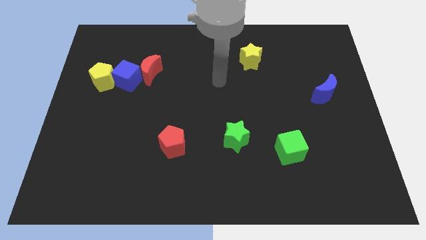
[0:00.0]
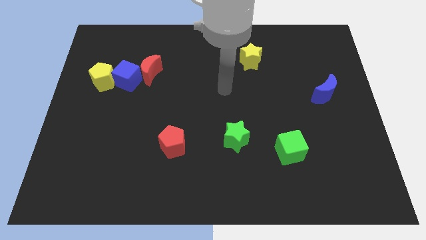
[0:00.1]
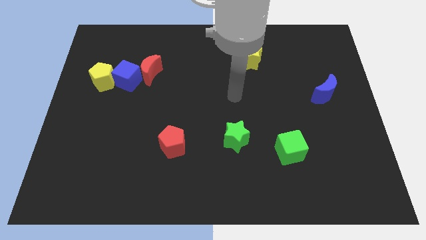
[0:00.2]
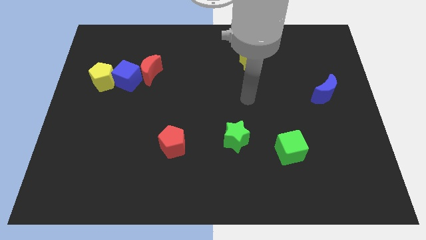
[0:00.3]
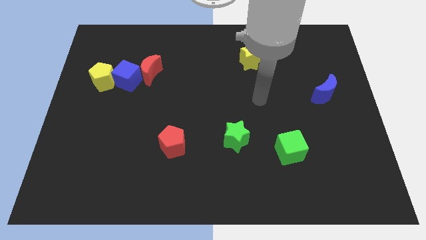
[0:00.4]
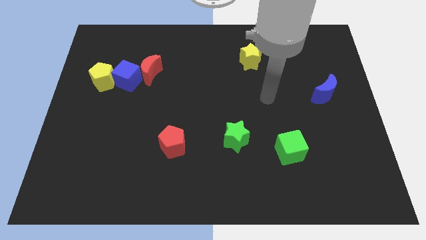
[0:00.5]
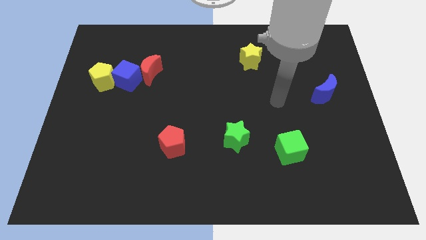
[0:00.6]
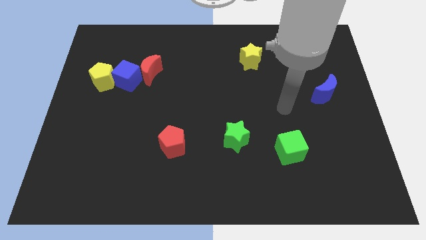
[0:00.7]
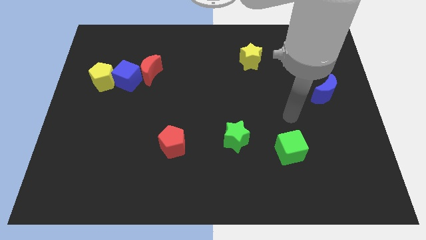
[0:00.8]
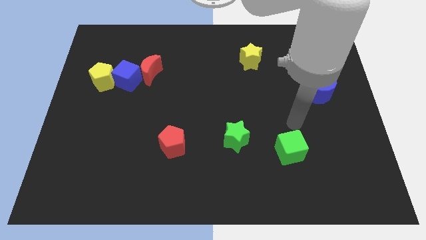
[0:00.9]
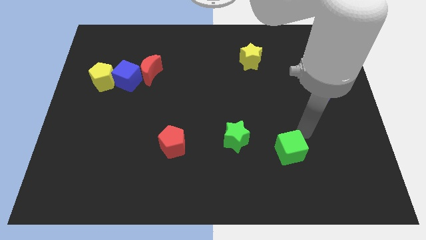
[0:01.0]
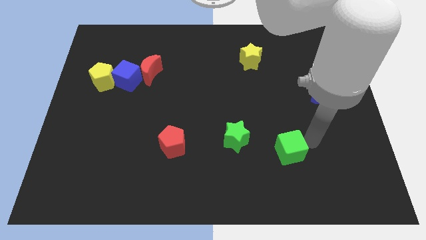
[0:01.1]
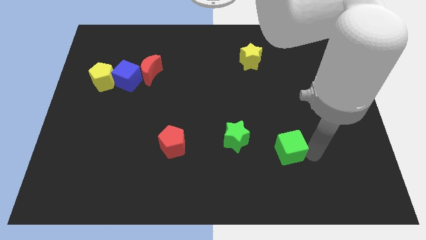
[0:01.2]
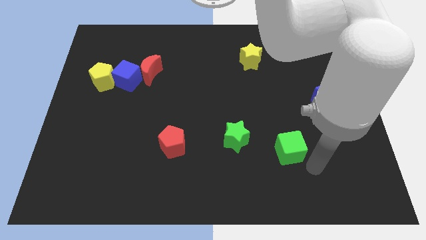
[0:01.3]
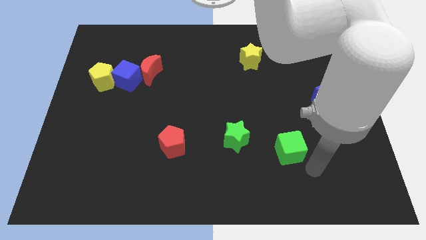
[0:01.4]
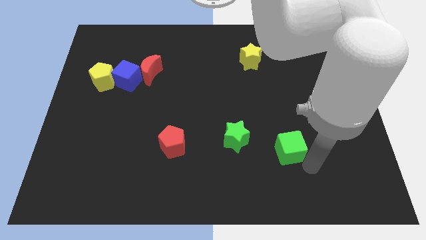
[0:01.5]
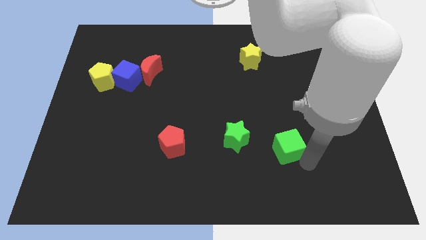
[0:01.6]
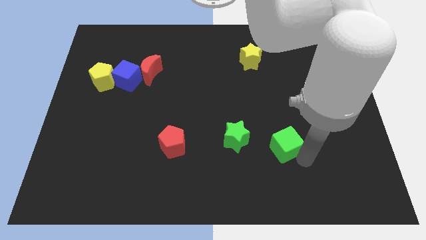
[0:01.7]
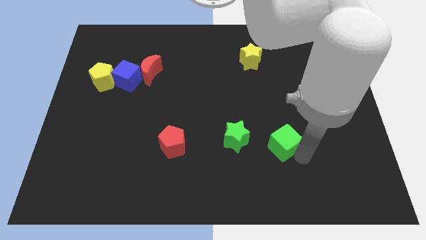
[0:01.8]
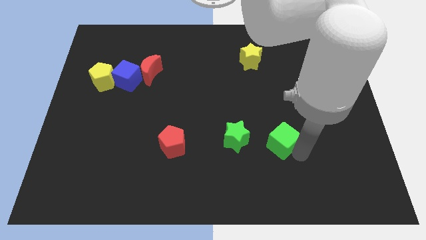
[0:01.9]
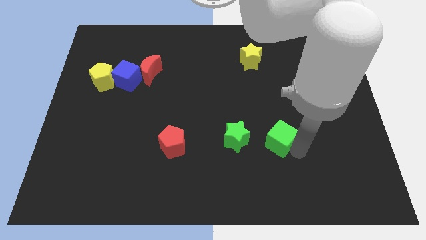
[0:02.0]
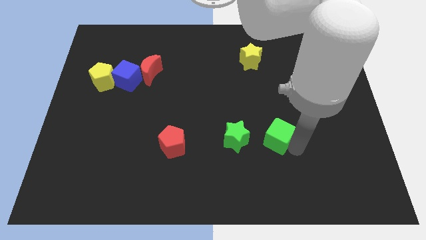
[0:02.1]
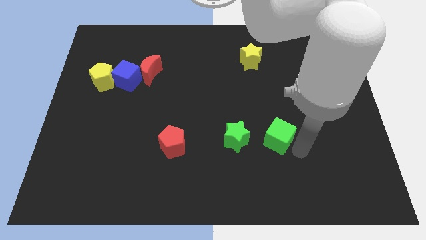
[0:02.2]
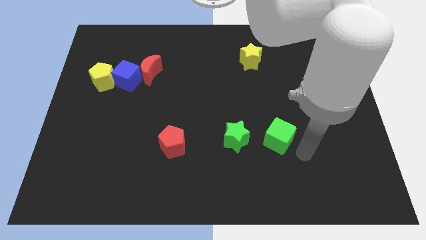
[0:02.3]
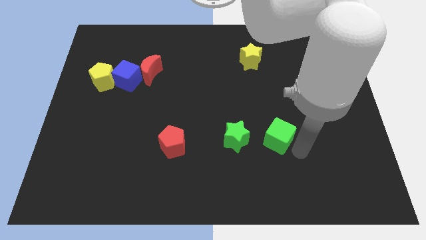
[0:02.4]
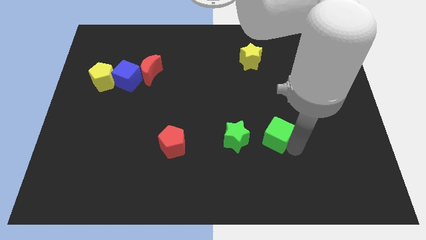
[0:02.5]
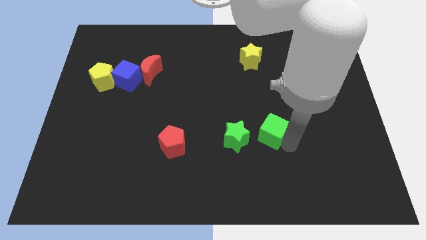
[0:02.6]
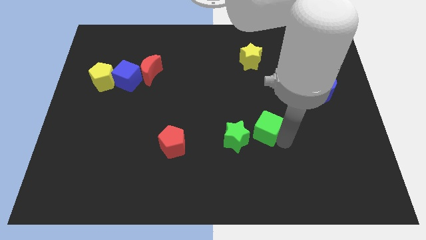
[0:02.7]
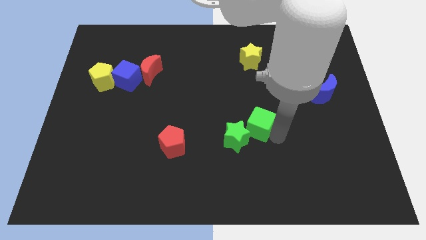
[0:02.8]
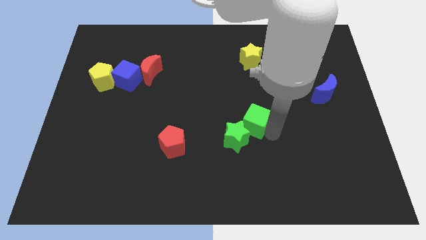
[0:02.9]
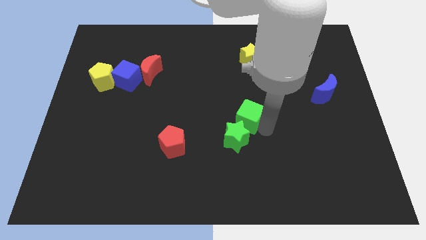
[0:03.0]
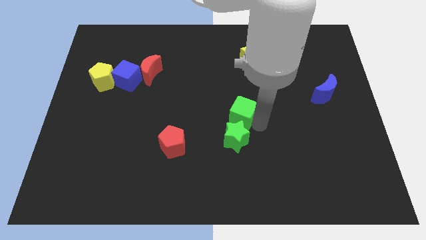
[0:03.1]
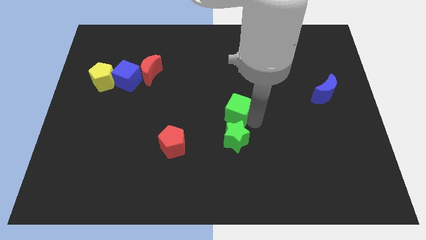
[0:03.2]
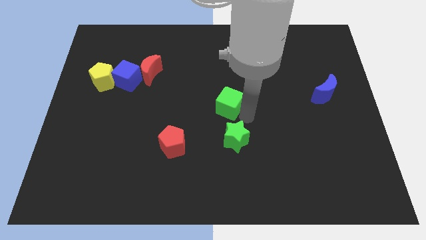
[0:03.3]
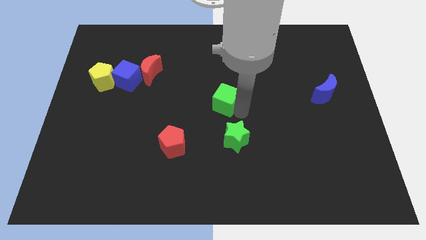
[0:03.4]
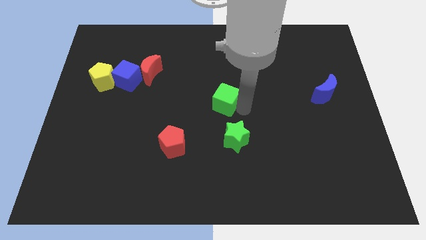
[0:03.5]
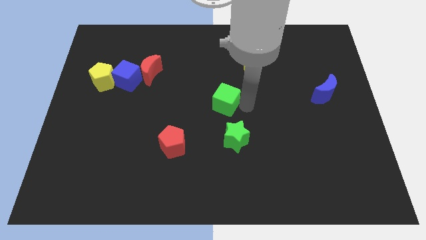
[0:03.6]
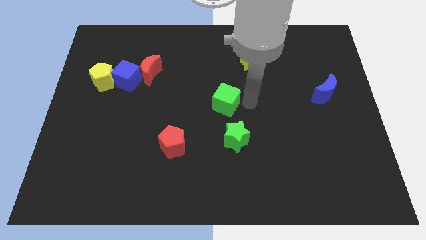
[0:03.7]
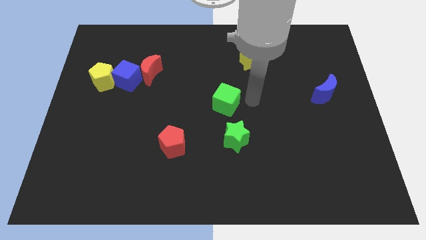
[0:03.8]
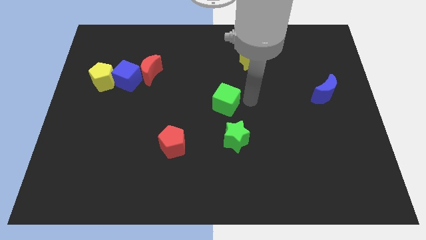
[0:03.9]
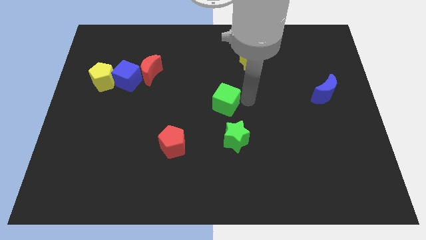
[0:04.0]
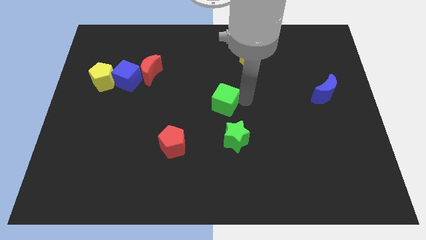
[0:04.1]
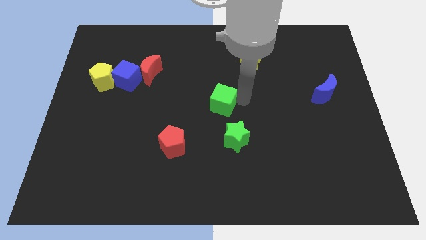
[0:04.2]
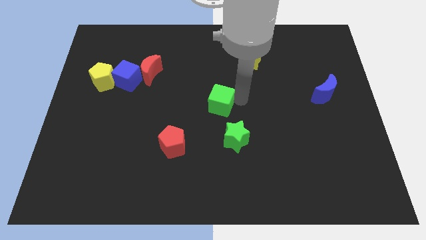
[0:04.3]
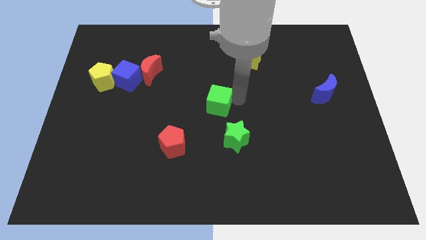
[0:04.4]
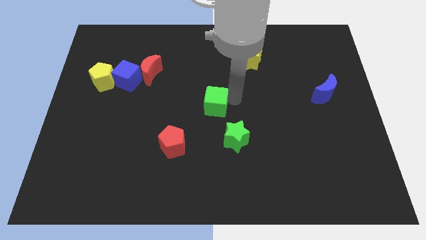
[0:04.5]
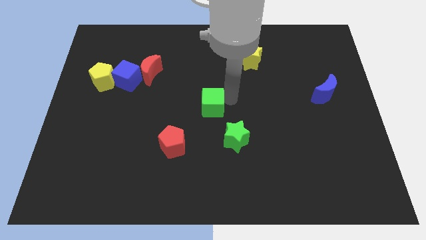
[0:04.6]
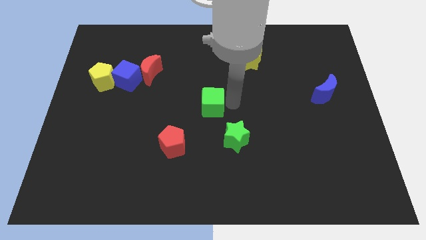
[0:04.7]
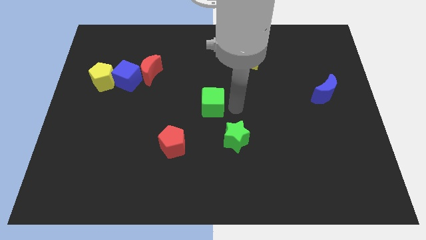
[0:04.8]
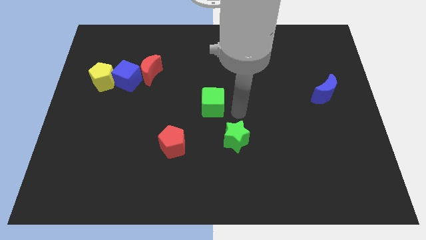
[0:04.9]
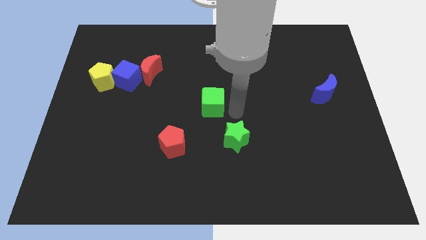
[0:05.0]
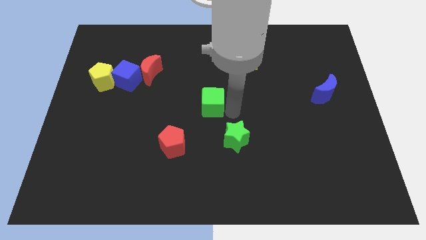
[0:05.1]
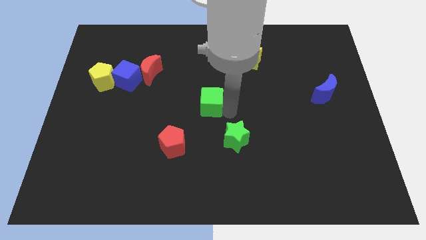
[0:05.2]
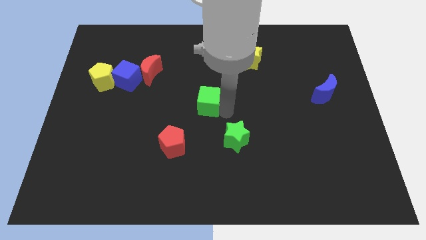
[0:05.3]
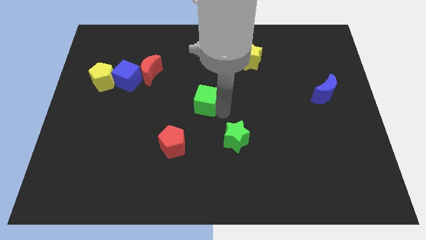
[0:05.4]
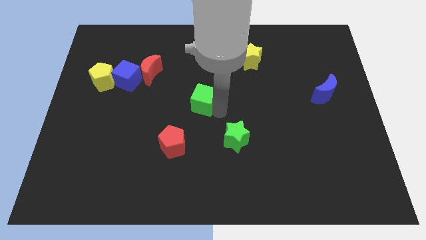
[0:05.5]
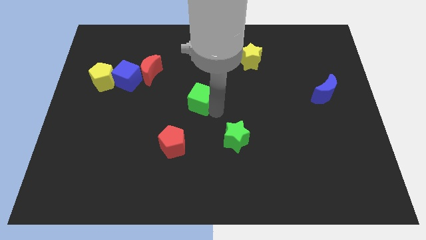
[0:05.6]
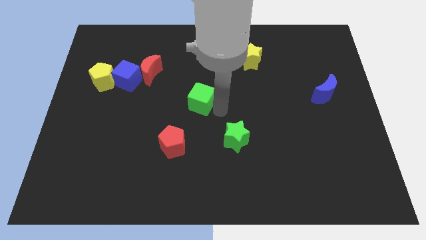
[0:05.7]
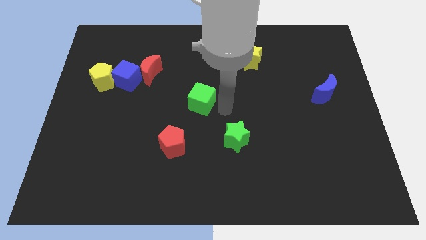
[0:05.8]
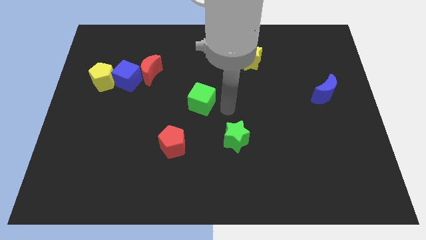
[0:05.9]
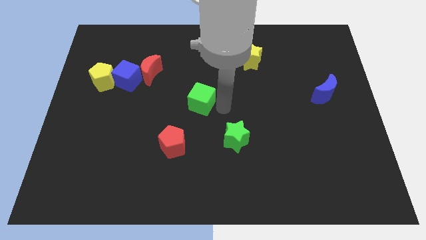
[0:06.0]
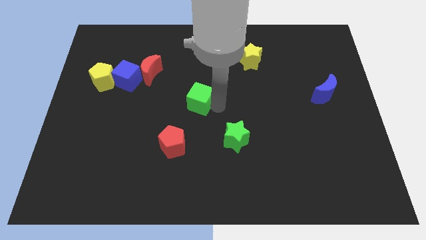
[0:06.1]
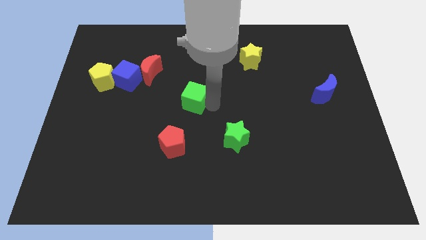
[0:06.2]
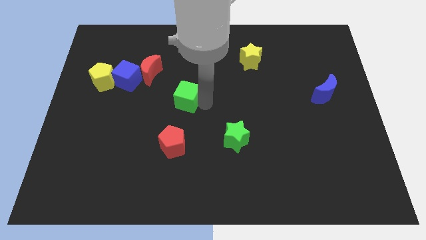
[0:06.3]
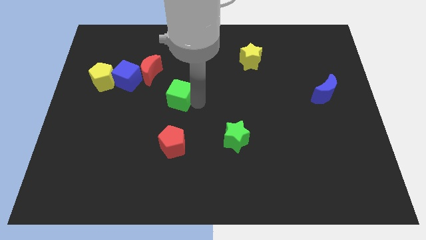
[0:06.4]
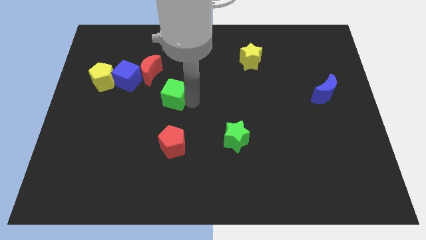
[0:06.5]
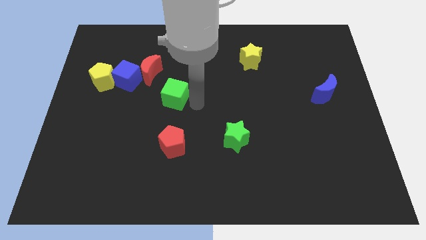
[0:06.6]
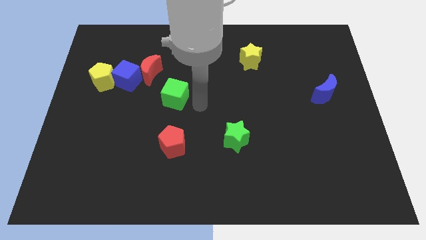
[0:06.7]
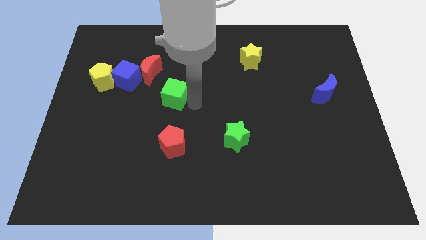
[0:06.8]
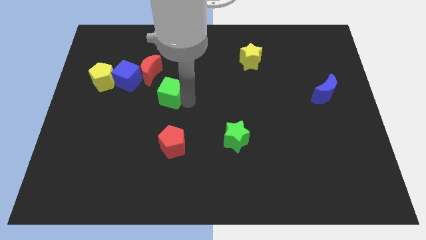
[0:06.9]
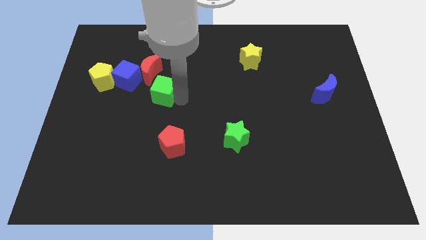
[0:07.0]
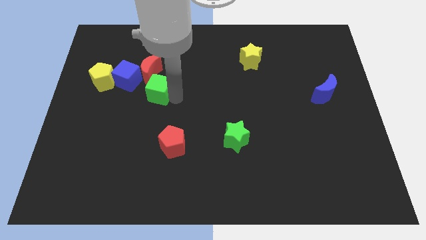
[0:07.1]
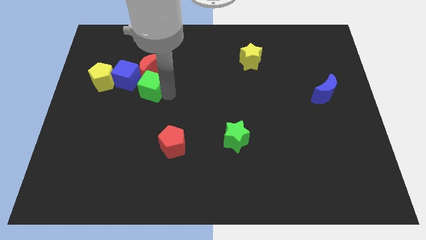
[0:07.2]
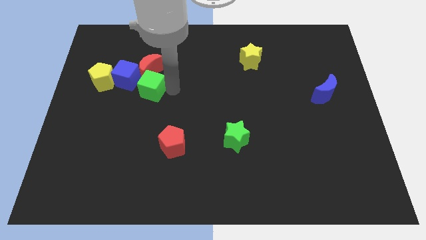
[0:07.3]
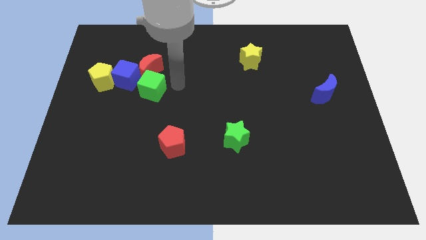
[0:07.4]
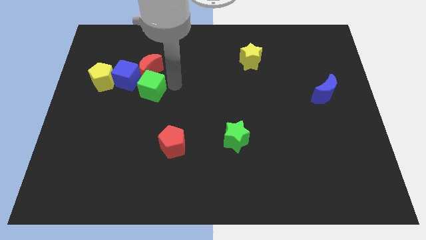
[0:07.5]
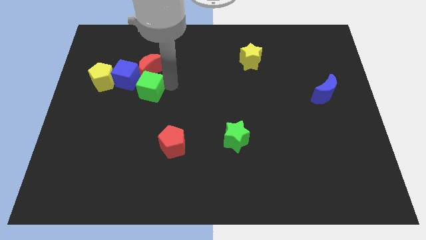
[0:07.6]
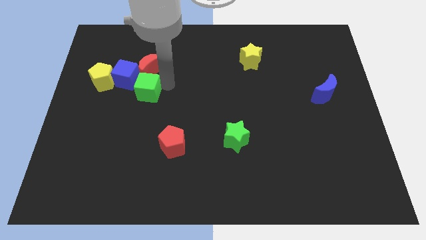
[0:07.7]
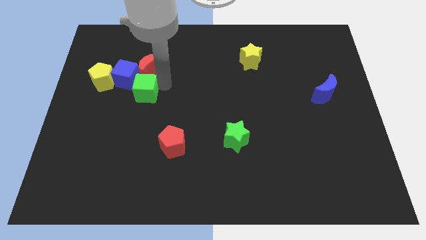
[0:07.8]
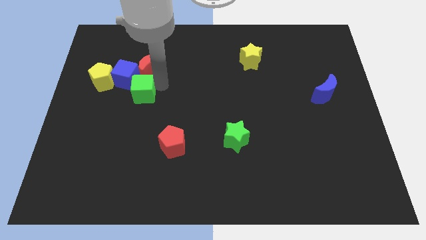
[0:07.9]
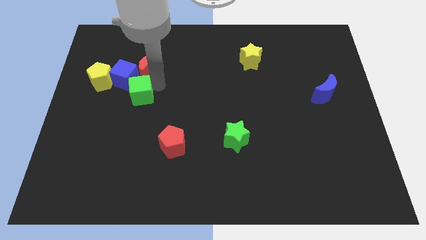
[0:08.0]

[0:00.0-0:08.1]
slide the green cube diagonally down and to the right of the yellow pentagon
